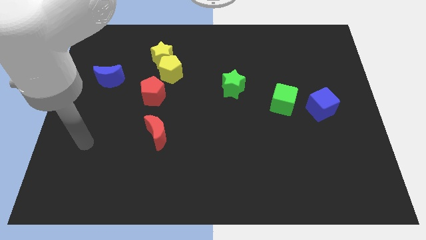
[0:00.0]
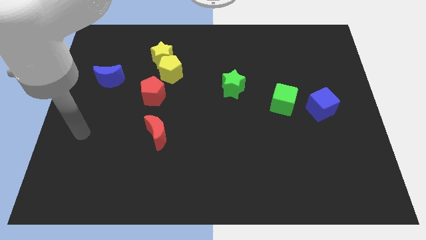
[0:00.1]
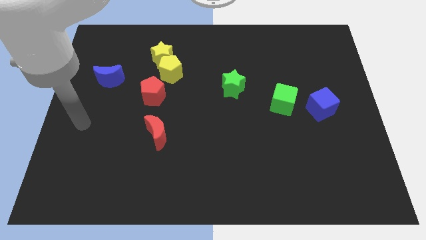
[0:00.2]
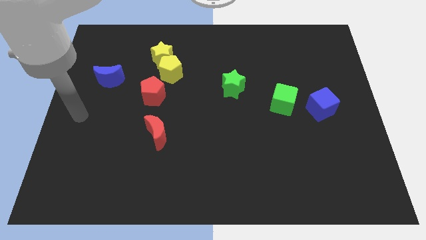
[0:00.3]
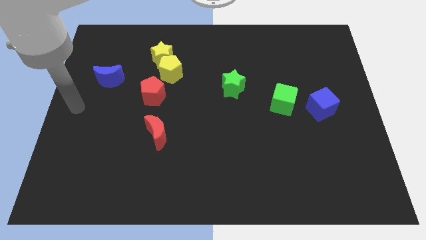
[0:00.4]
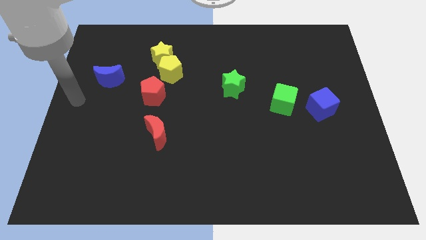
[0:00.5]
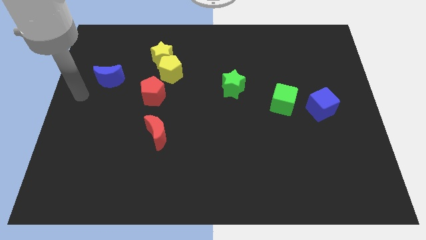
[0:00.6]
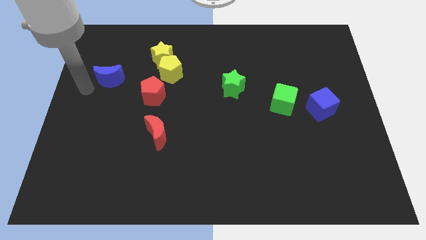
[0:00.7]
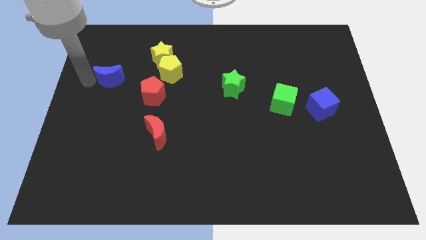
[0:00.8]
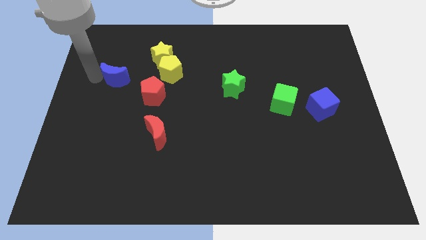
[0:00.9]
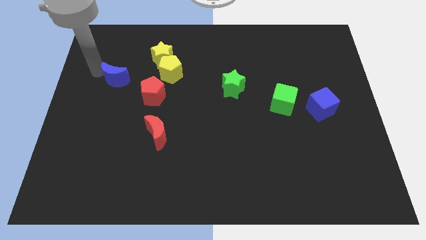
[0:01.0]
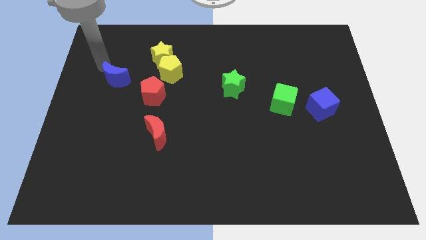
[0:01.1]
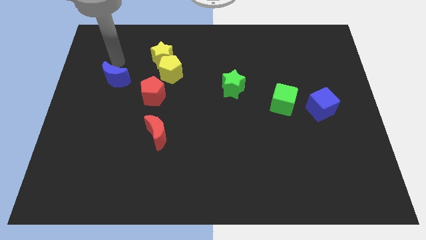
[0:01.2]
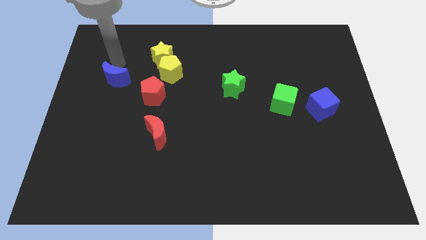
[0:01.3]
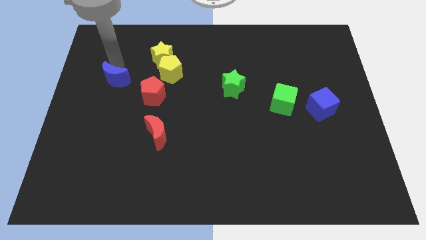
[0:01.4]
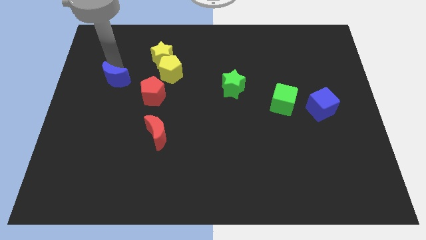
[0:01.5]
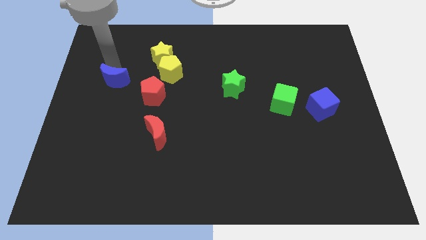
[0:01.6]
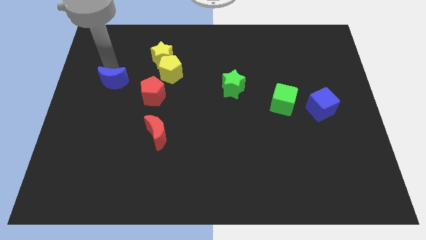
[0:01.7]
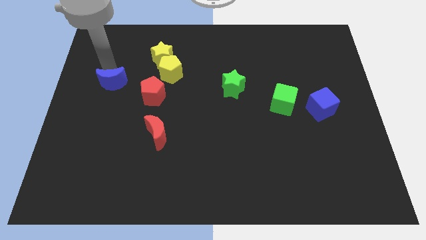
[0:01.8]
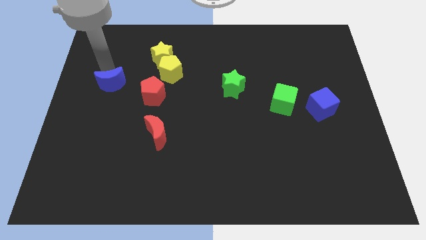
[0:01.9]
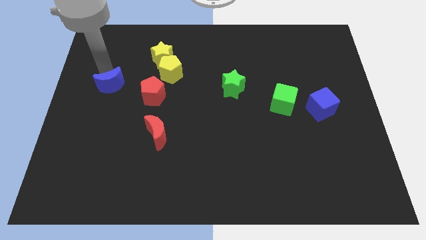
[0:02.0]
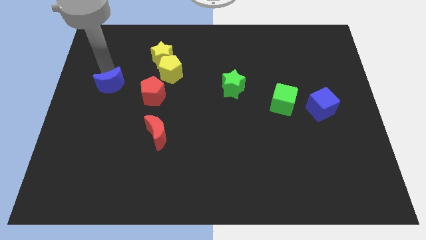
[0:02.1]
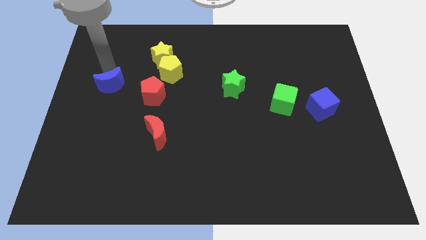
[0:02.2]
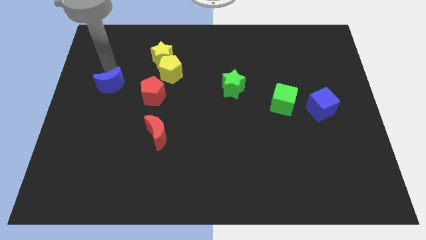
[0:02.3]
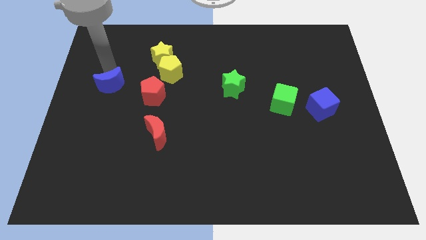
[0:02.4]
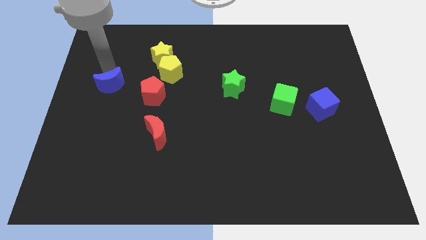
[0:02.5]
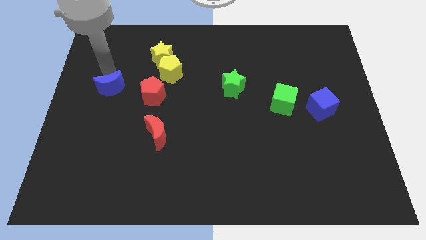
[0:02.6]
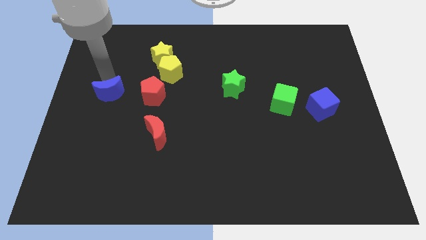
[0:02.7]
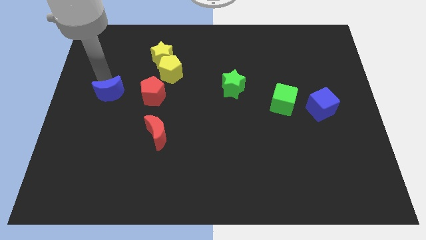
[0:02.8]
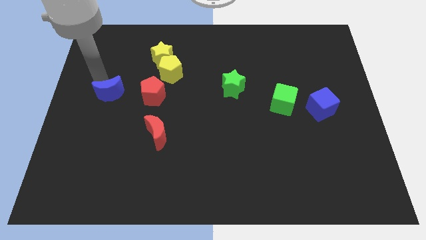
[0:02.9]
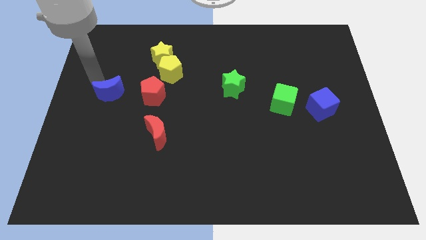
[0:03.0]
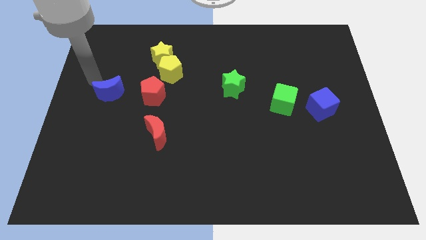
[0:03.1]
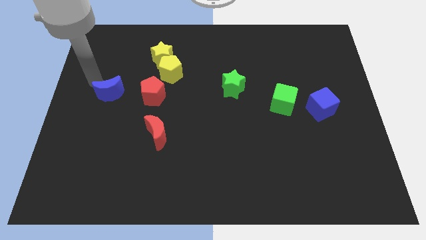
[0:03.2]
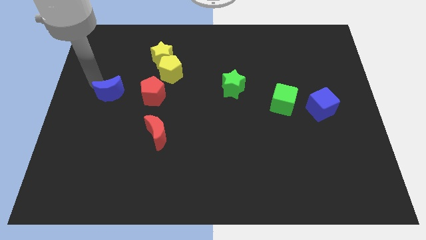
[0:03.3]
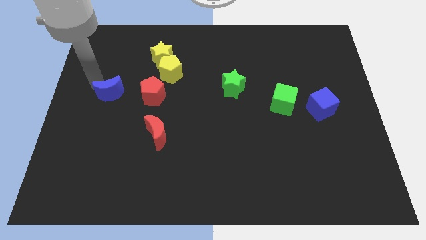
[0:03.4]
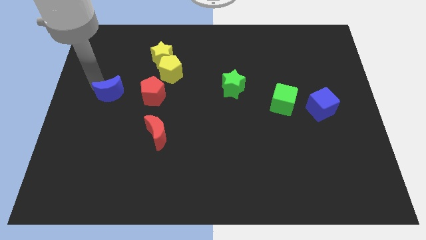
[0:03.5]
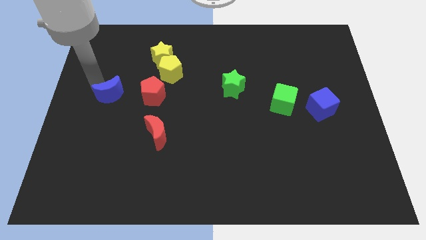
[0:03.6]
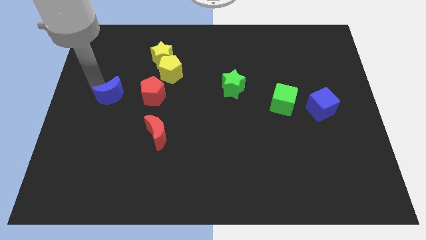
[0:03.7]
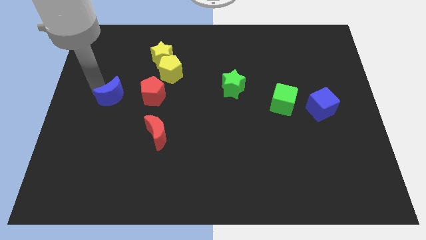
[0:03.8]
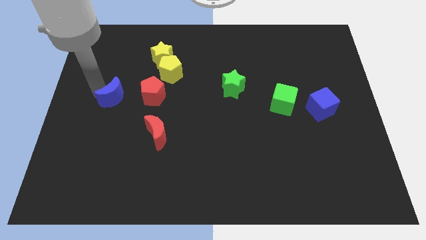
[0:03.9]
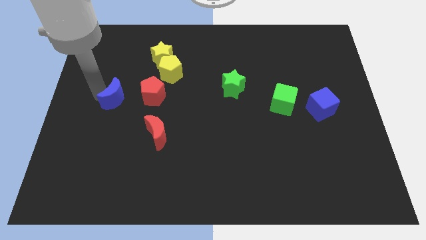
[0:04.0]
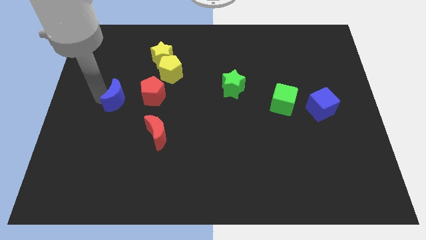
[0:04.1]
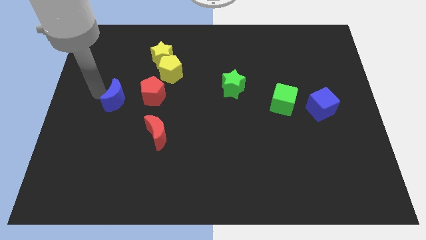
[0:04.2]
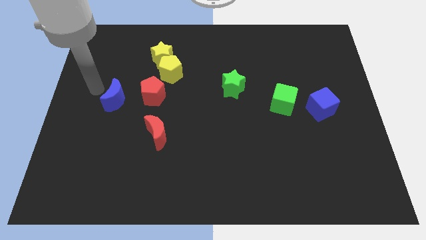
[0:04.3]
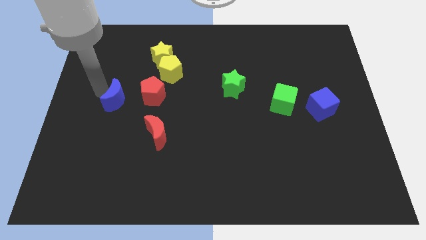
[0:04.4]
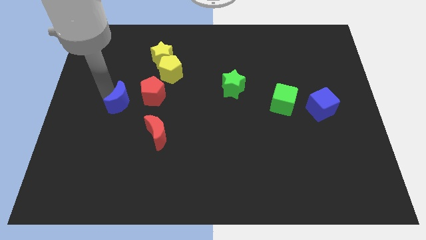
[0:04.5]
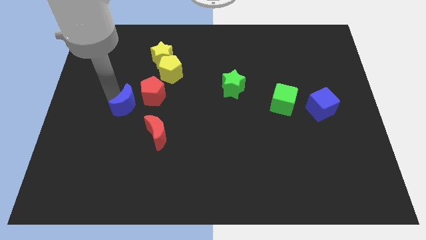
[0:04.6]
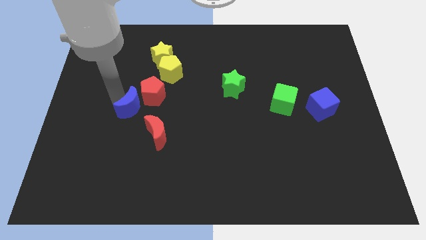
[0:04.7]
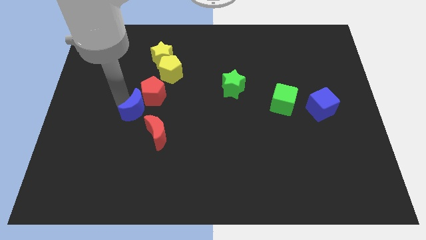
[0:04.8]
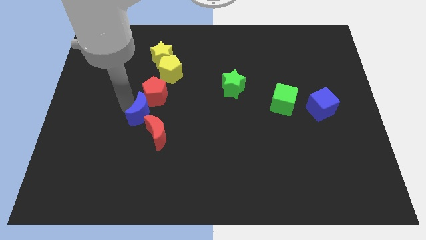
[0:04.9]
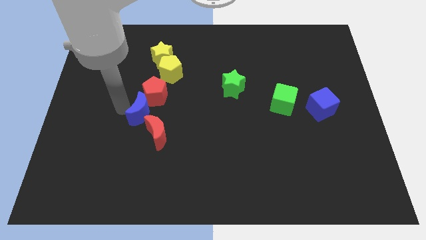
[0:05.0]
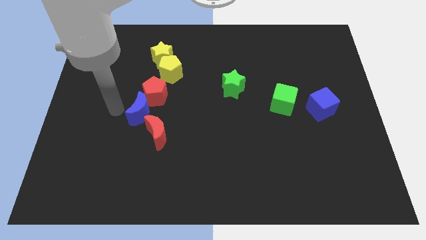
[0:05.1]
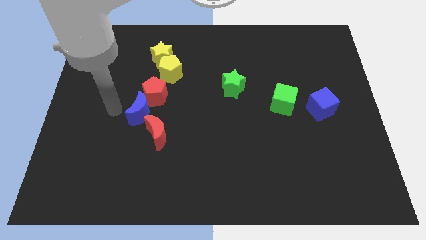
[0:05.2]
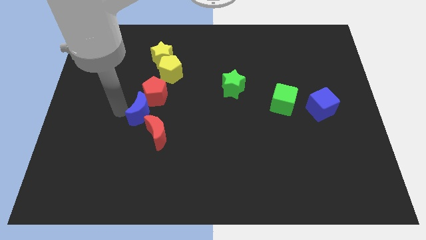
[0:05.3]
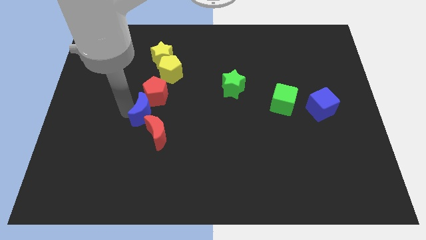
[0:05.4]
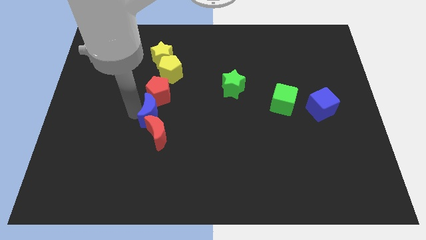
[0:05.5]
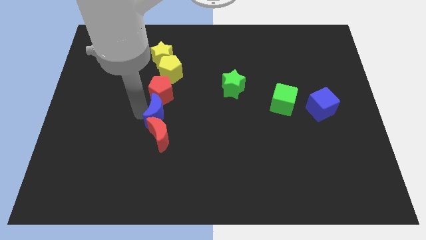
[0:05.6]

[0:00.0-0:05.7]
slide the blue moon to the right a bit

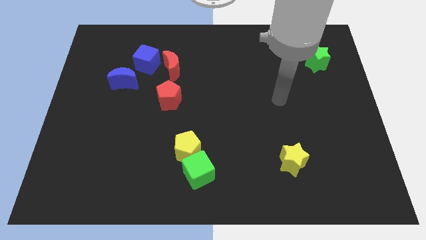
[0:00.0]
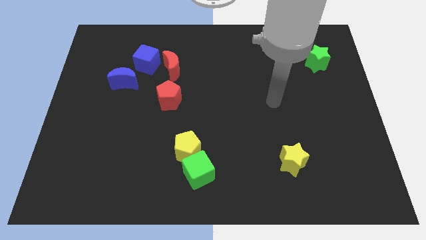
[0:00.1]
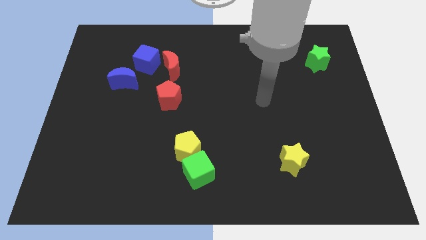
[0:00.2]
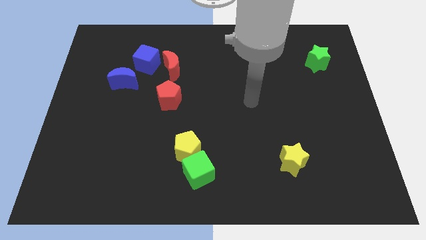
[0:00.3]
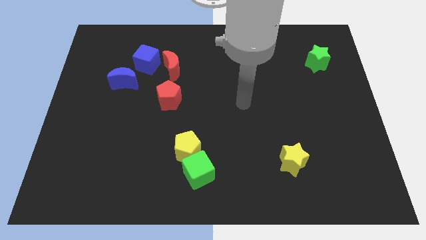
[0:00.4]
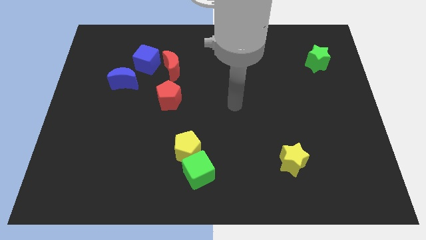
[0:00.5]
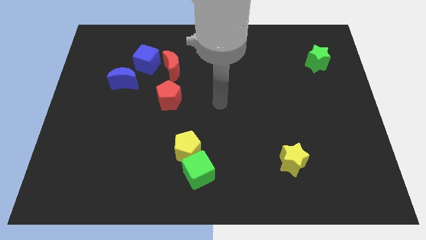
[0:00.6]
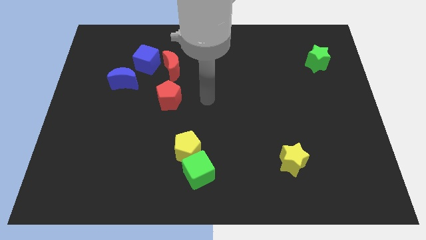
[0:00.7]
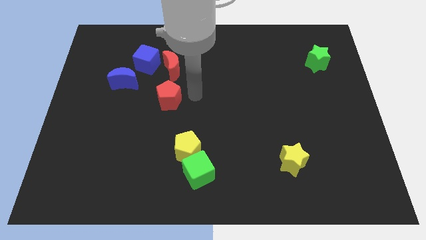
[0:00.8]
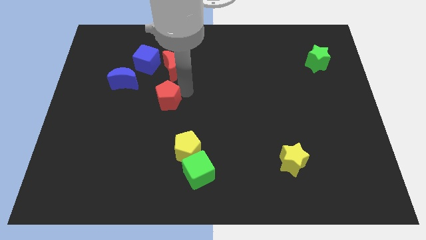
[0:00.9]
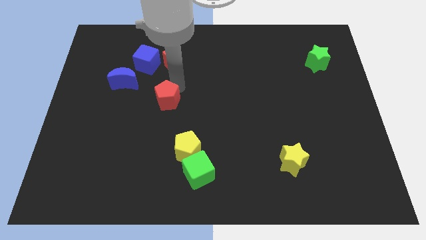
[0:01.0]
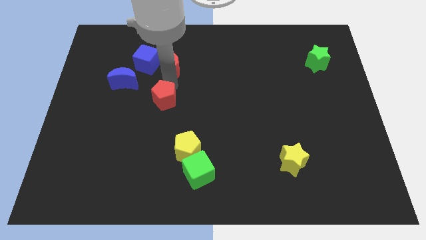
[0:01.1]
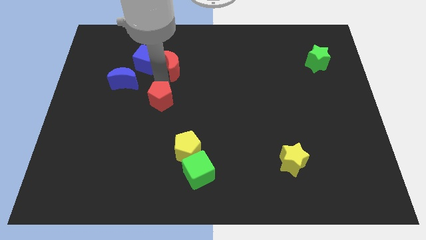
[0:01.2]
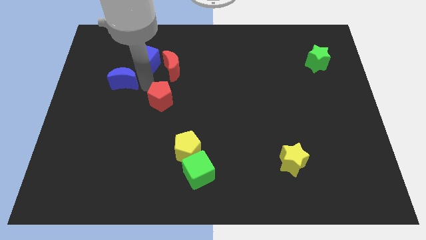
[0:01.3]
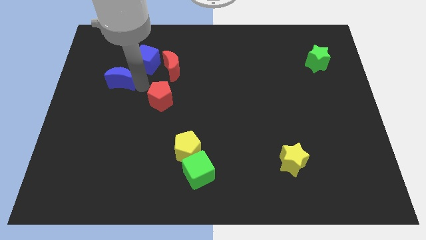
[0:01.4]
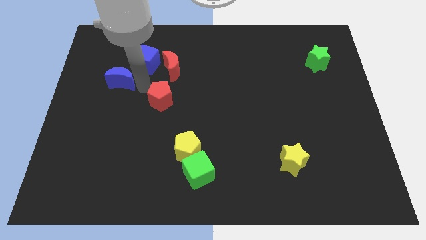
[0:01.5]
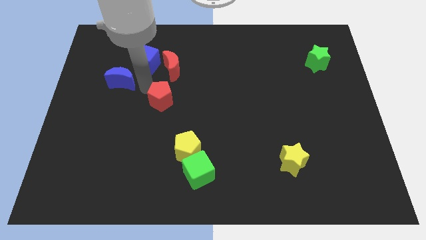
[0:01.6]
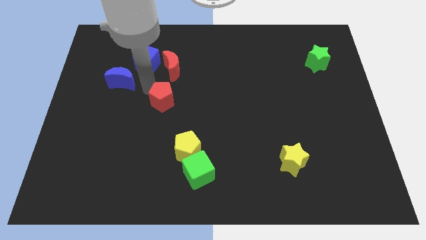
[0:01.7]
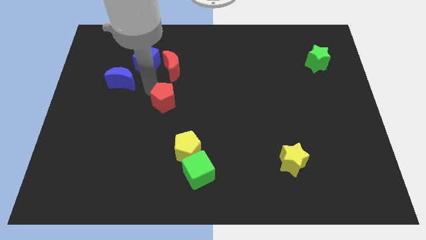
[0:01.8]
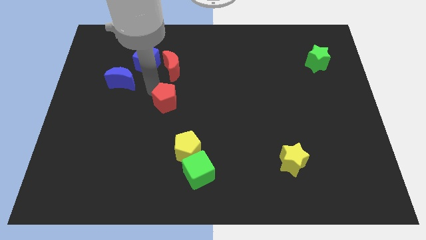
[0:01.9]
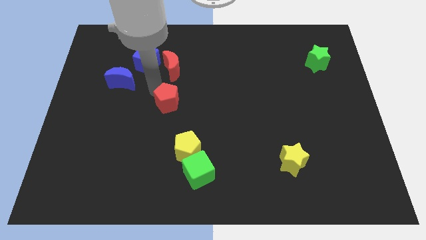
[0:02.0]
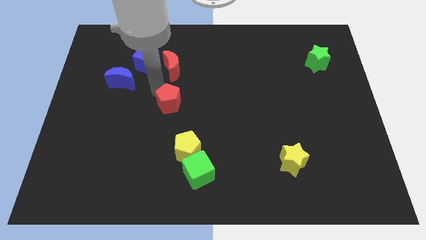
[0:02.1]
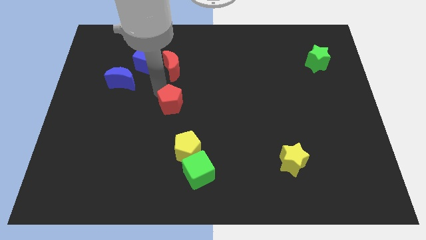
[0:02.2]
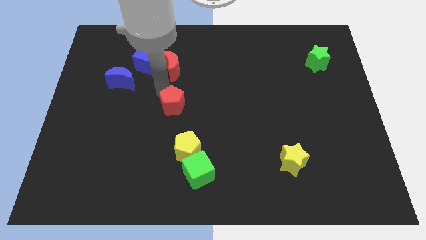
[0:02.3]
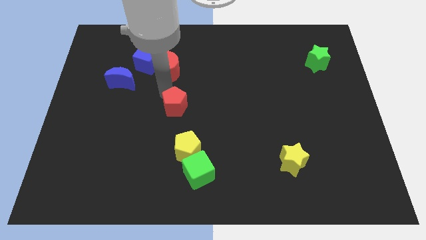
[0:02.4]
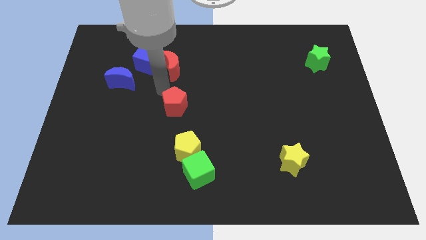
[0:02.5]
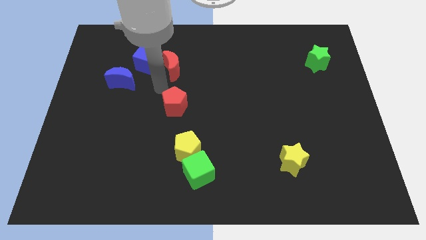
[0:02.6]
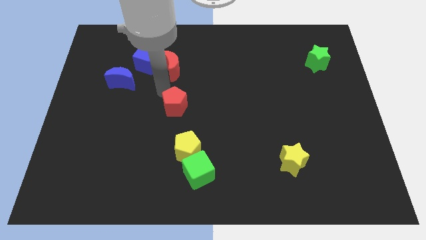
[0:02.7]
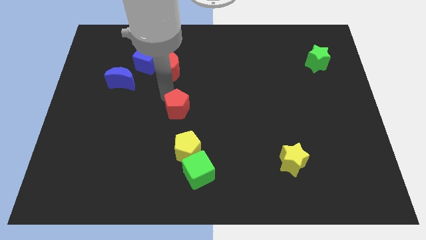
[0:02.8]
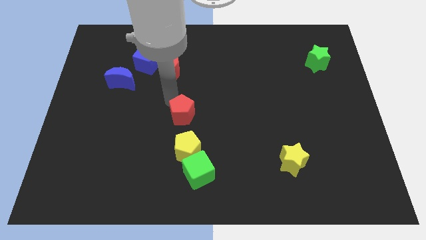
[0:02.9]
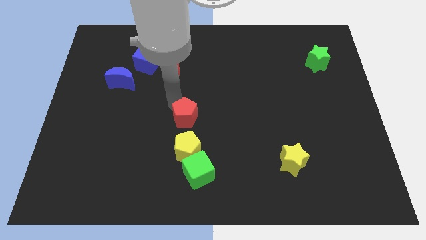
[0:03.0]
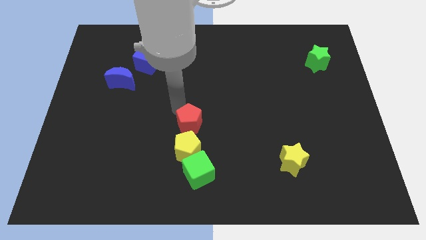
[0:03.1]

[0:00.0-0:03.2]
slide the red pentagon down and then to the right a bit
